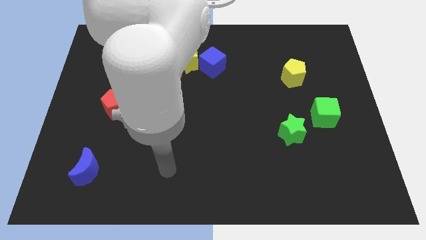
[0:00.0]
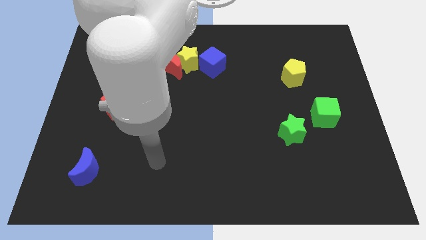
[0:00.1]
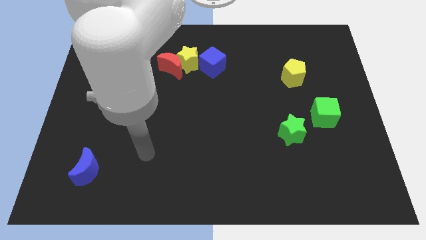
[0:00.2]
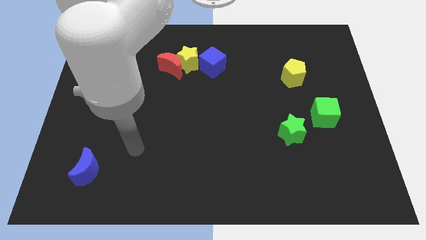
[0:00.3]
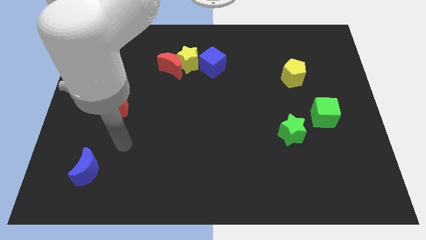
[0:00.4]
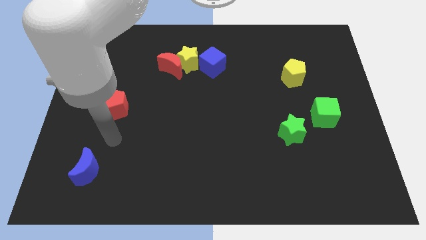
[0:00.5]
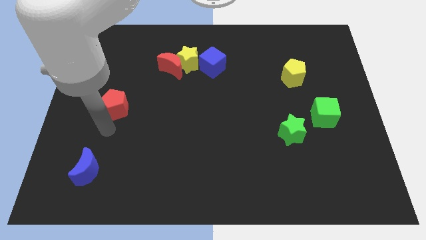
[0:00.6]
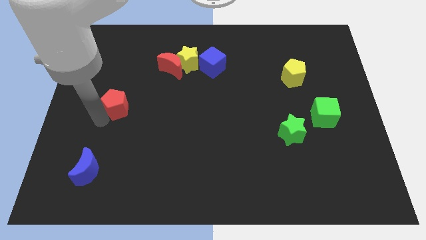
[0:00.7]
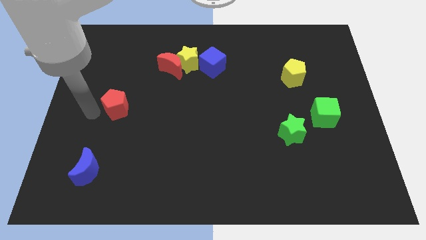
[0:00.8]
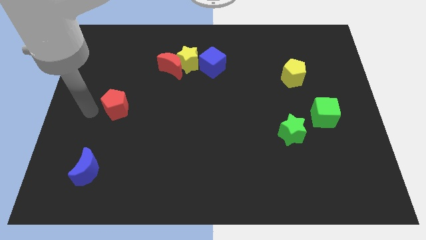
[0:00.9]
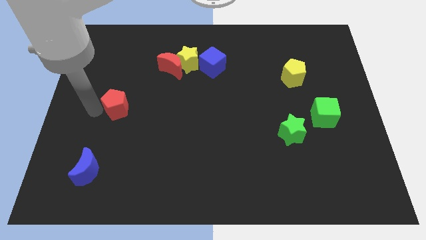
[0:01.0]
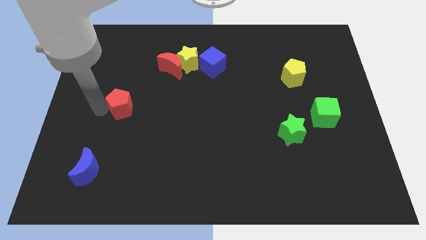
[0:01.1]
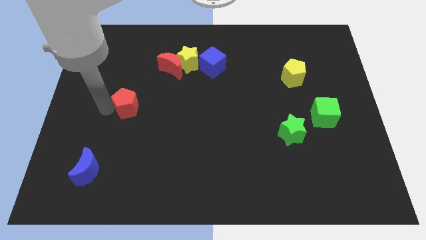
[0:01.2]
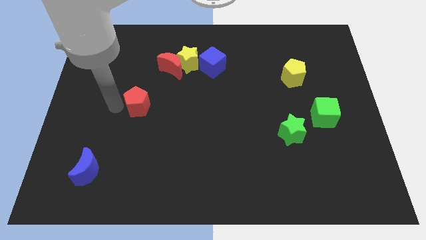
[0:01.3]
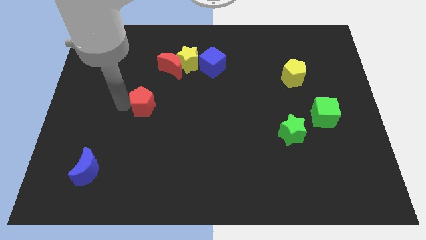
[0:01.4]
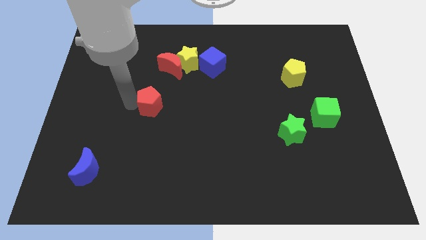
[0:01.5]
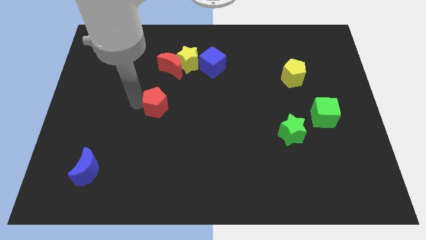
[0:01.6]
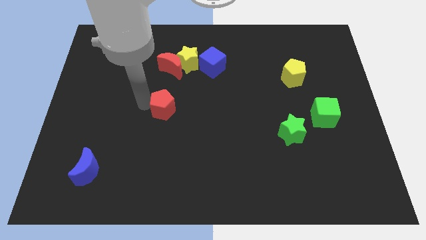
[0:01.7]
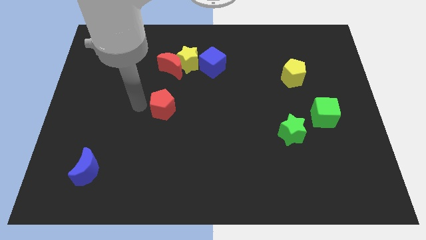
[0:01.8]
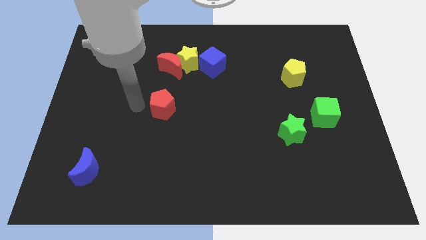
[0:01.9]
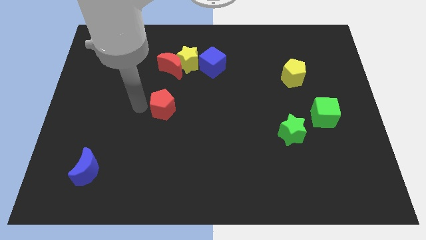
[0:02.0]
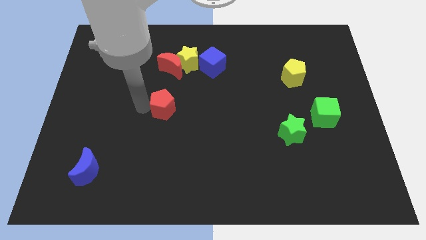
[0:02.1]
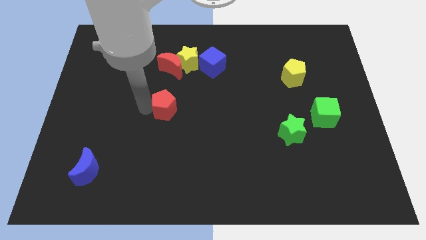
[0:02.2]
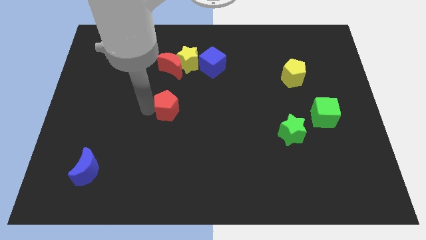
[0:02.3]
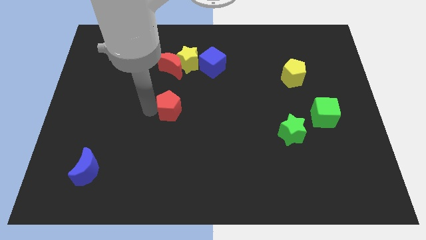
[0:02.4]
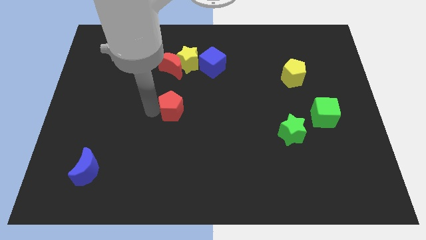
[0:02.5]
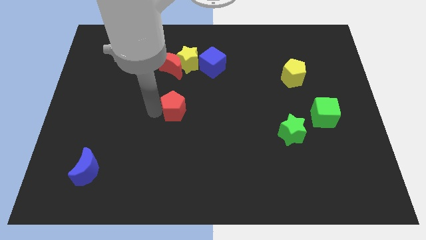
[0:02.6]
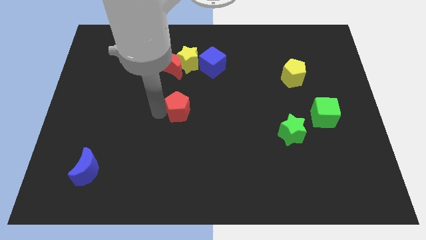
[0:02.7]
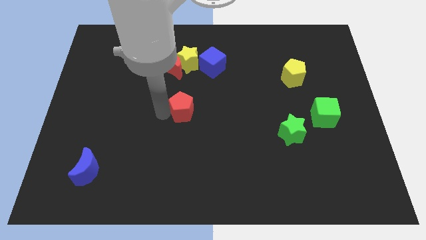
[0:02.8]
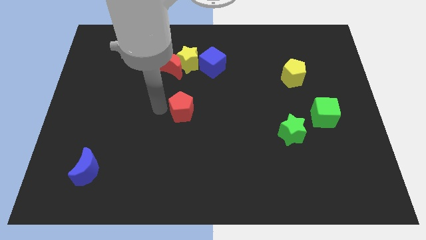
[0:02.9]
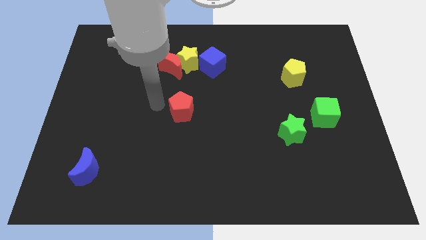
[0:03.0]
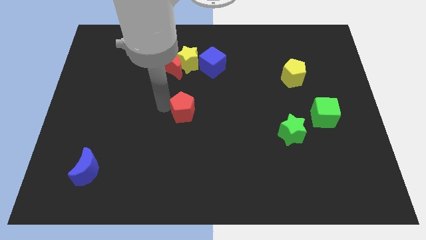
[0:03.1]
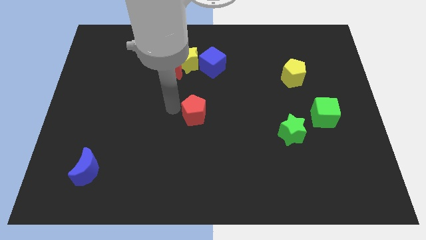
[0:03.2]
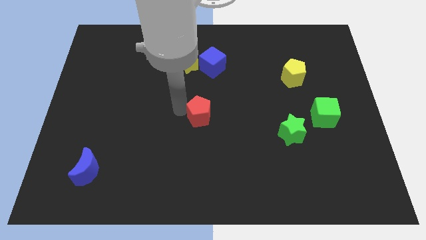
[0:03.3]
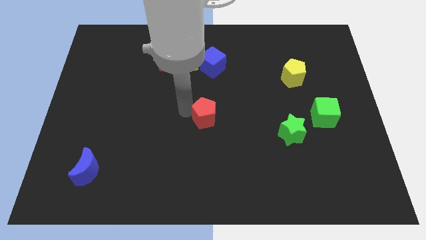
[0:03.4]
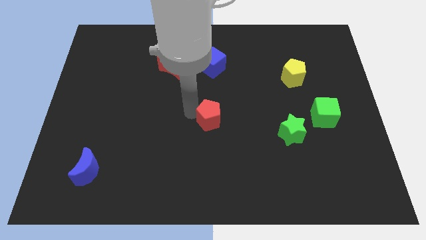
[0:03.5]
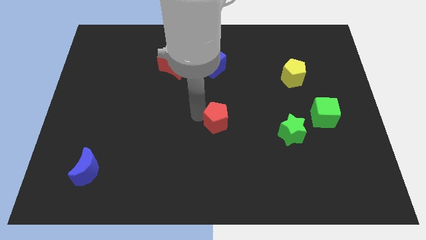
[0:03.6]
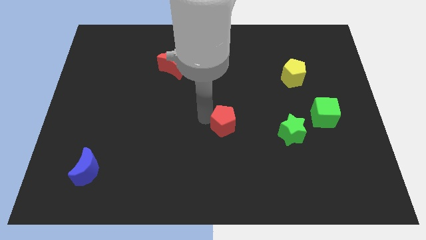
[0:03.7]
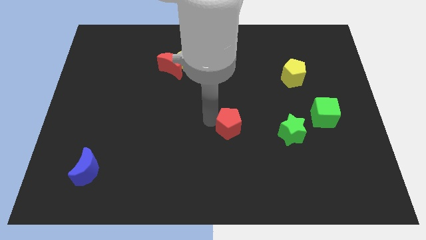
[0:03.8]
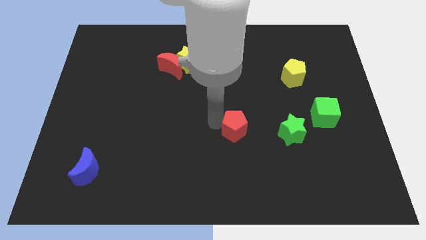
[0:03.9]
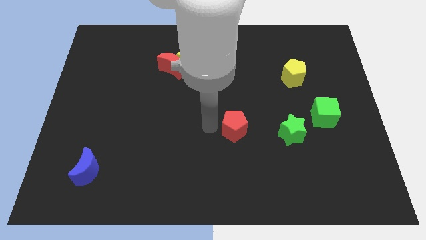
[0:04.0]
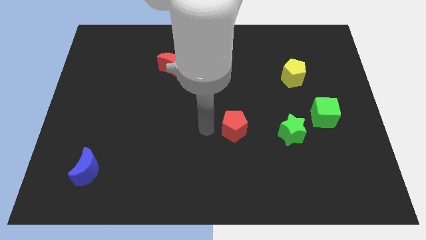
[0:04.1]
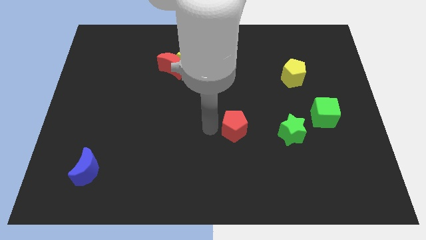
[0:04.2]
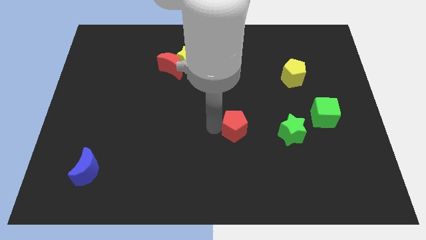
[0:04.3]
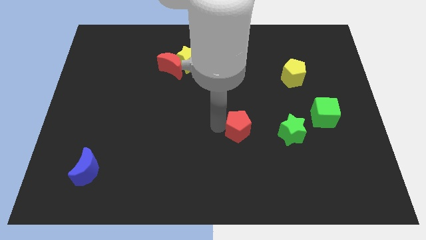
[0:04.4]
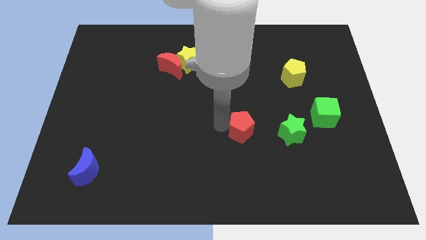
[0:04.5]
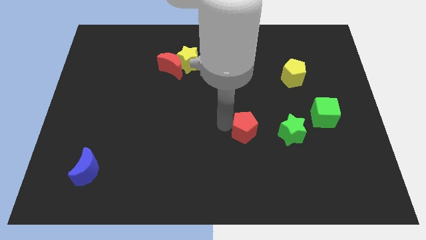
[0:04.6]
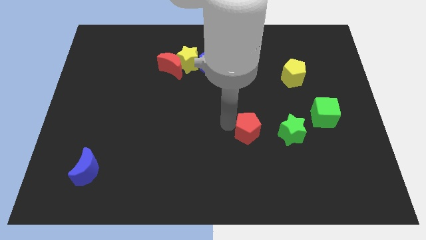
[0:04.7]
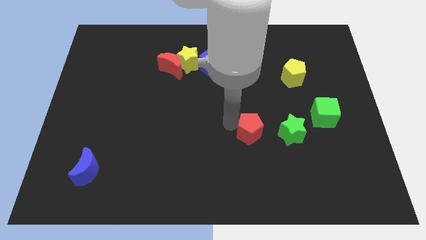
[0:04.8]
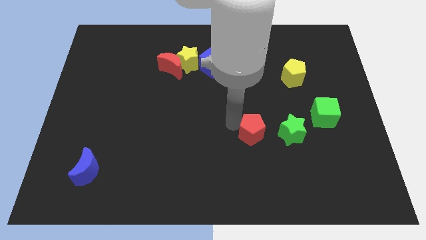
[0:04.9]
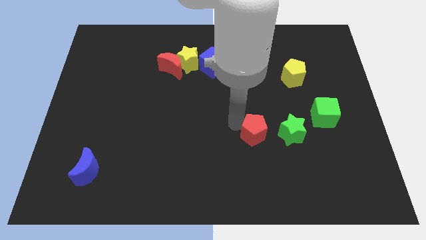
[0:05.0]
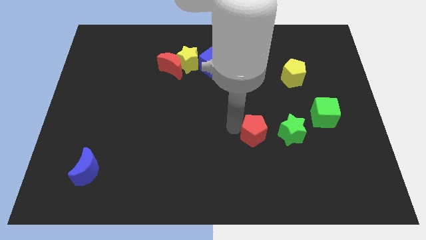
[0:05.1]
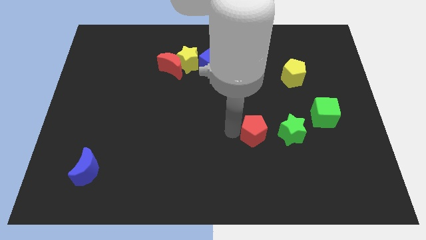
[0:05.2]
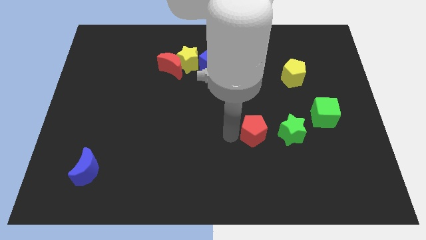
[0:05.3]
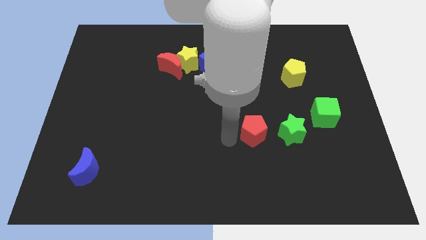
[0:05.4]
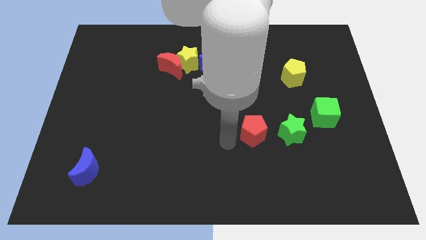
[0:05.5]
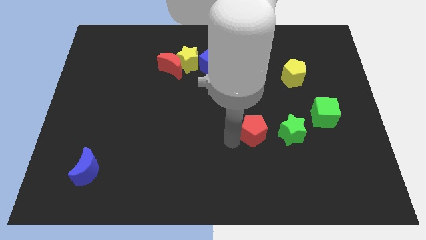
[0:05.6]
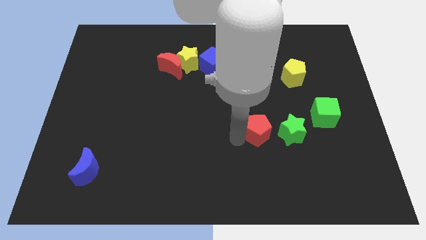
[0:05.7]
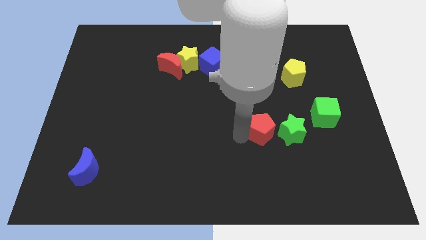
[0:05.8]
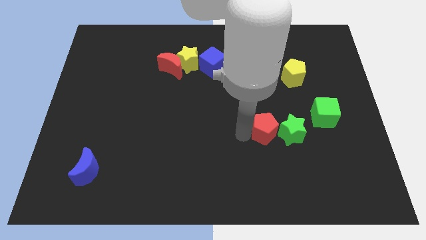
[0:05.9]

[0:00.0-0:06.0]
slide the red pentagon close to the green star

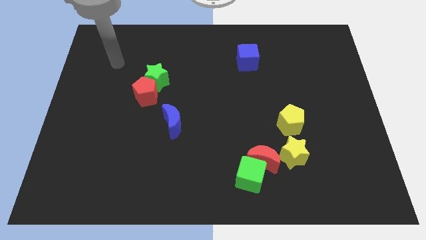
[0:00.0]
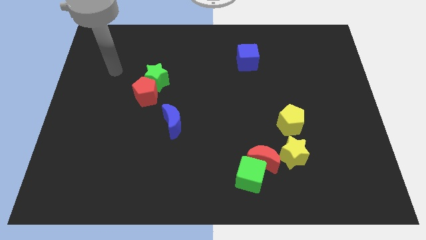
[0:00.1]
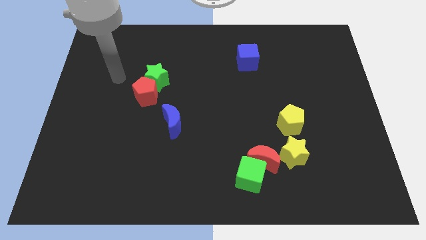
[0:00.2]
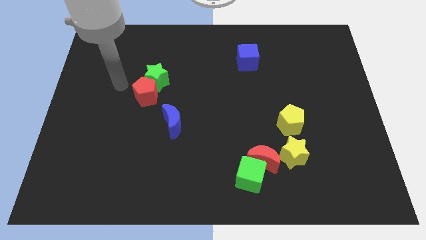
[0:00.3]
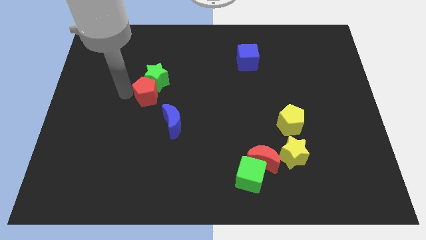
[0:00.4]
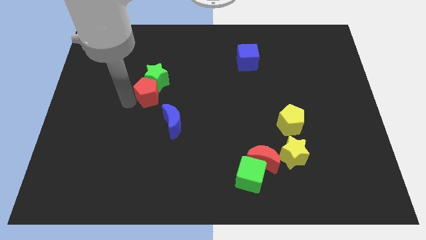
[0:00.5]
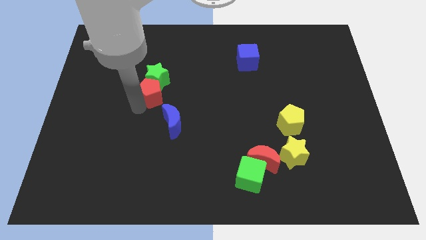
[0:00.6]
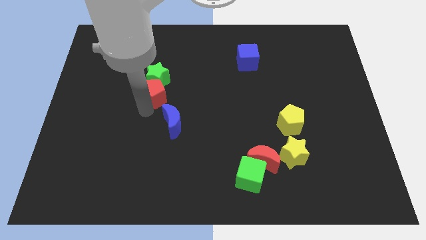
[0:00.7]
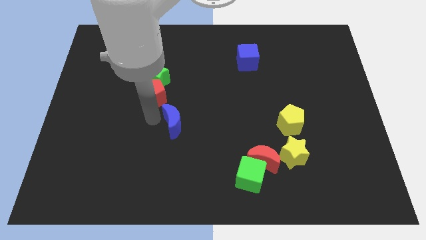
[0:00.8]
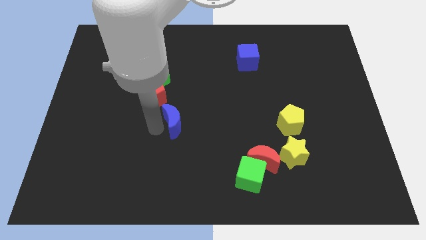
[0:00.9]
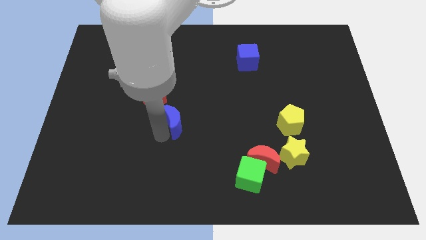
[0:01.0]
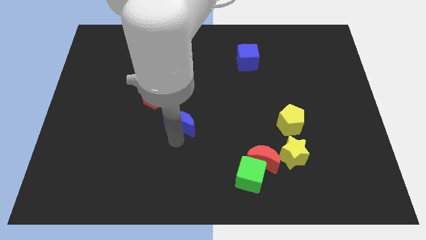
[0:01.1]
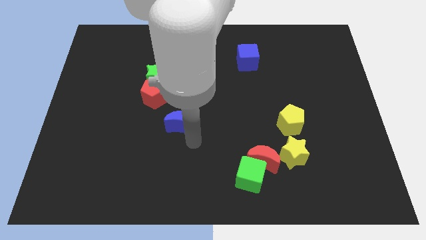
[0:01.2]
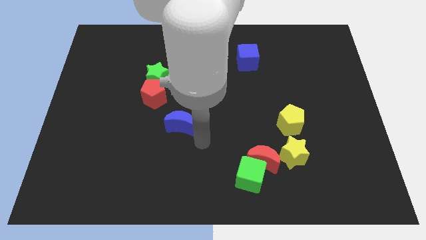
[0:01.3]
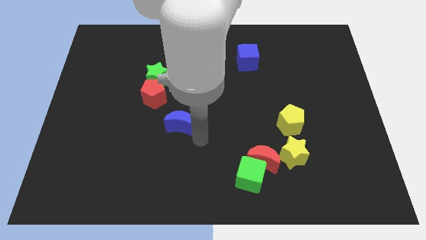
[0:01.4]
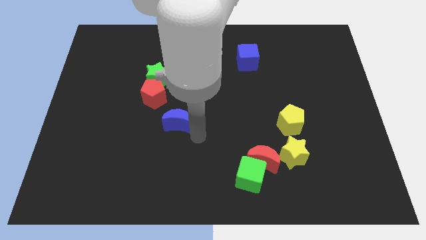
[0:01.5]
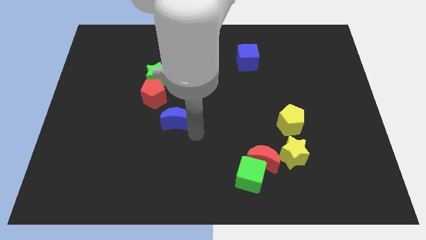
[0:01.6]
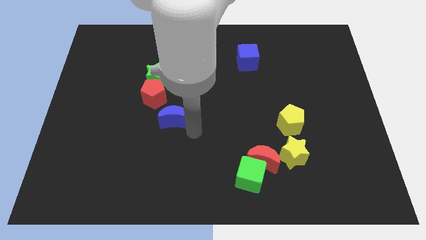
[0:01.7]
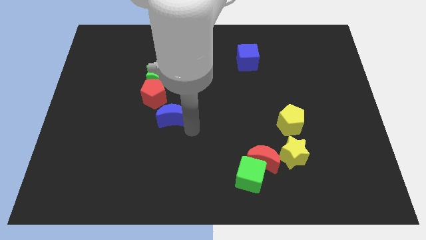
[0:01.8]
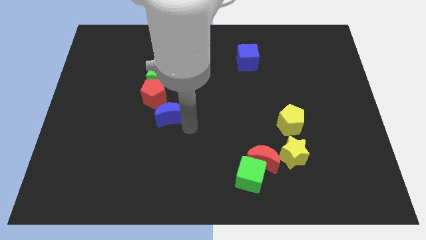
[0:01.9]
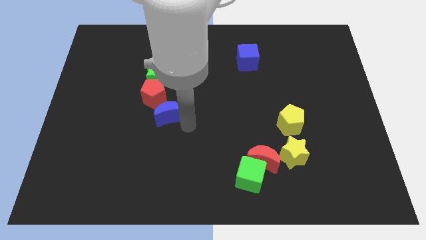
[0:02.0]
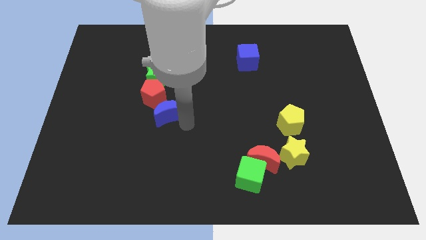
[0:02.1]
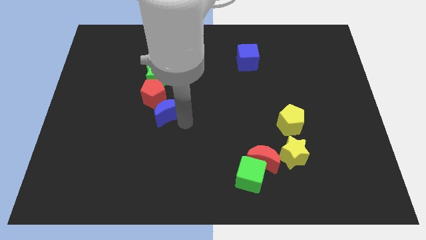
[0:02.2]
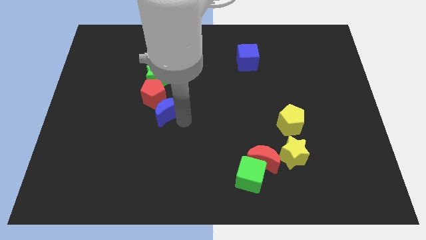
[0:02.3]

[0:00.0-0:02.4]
put the blue moon to the red pentagon
